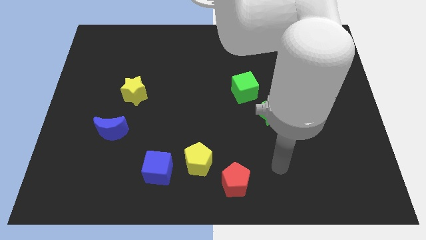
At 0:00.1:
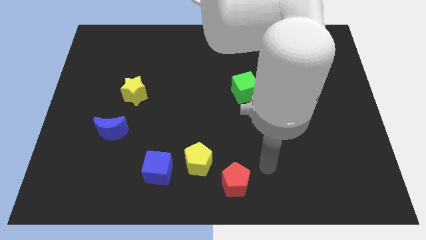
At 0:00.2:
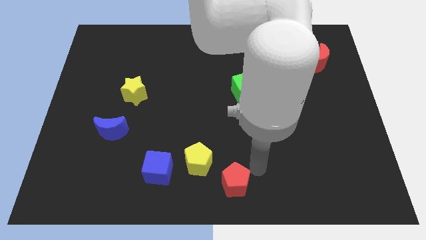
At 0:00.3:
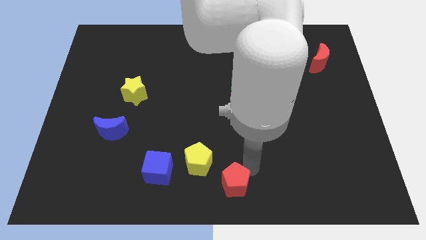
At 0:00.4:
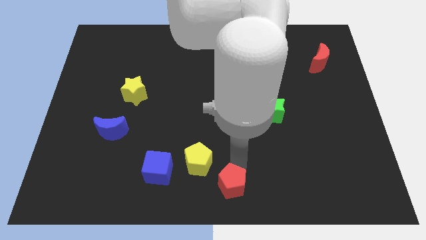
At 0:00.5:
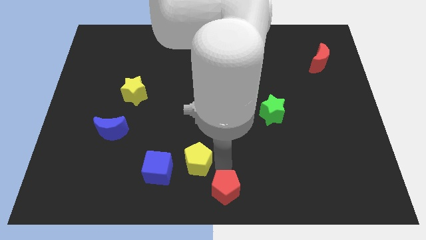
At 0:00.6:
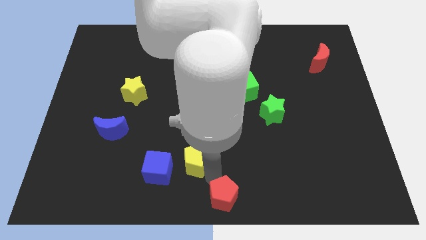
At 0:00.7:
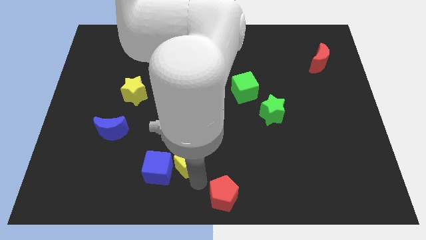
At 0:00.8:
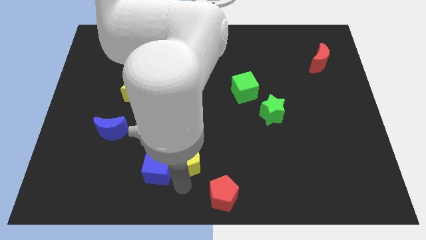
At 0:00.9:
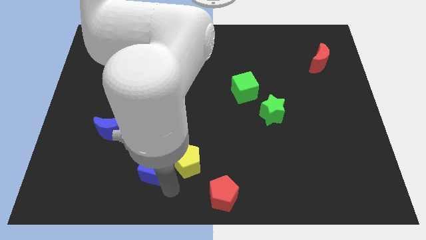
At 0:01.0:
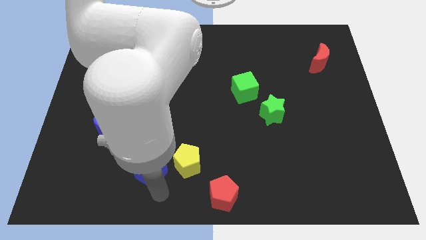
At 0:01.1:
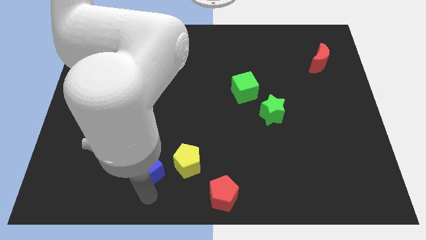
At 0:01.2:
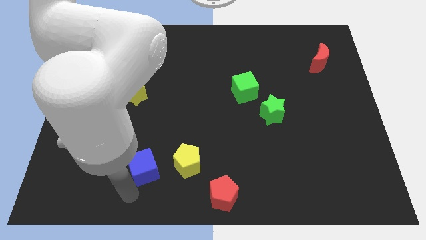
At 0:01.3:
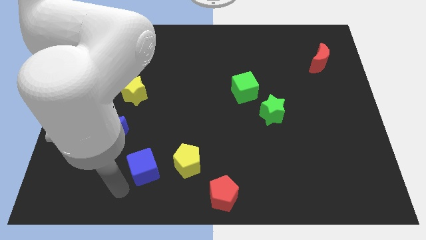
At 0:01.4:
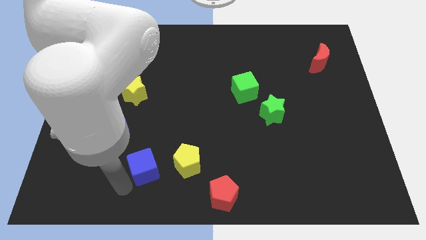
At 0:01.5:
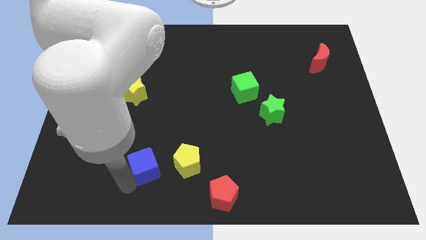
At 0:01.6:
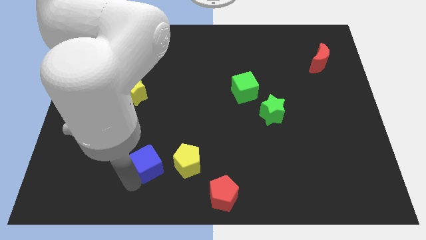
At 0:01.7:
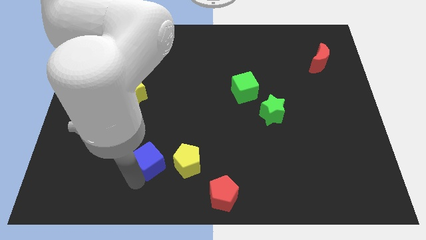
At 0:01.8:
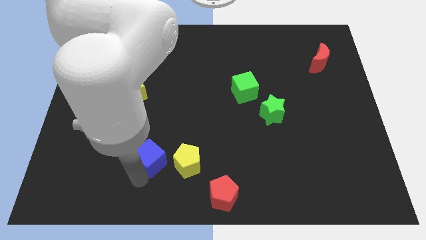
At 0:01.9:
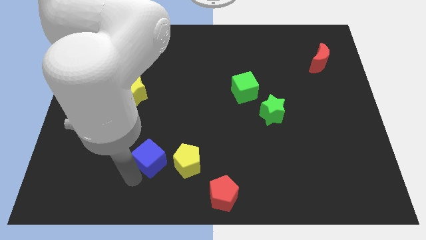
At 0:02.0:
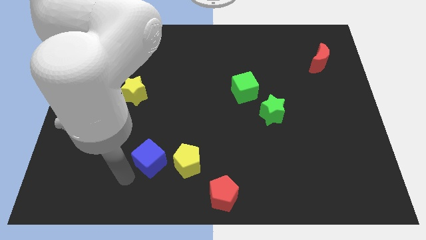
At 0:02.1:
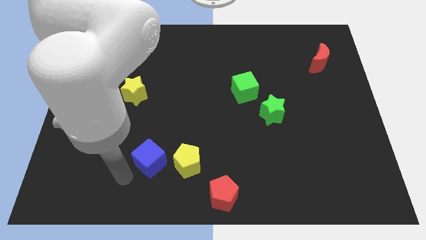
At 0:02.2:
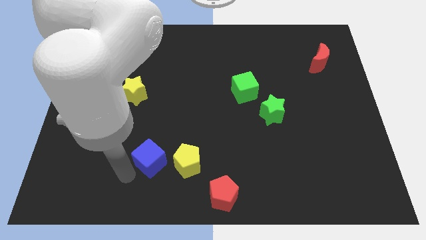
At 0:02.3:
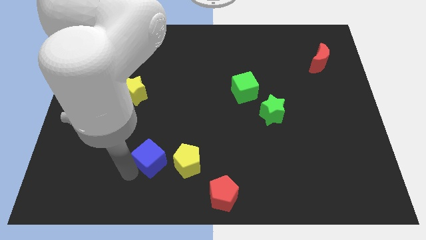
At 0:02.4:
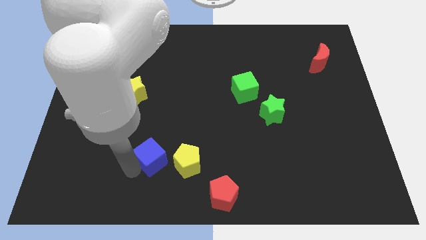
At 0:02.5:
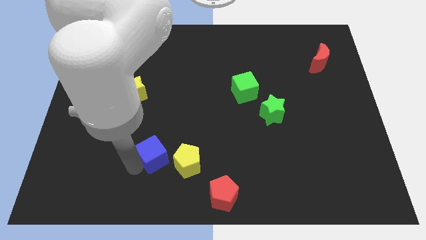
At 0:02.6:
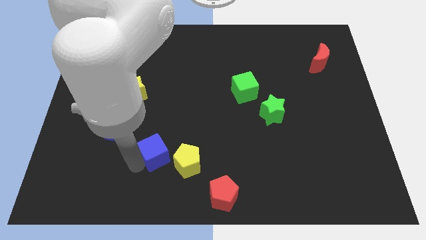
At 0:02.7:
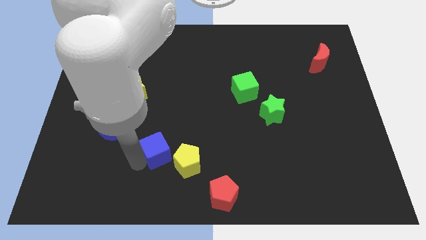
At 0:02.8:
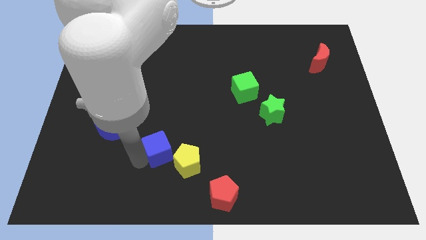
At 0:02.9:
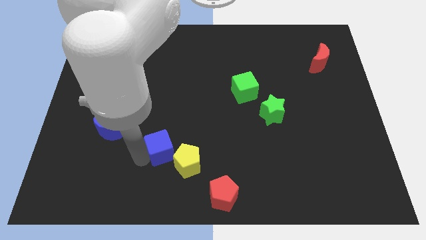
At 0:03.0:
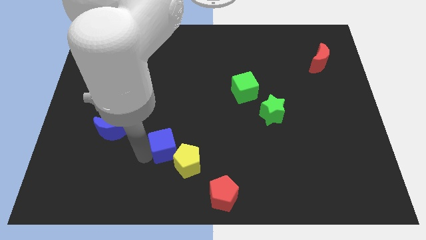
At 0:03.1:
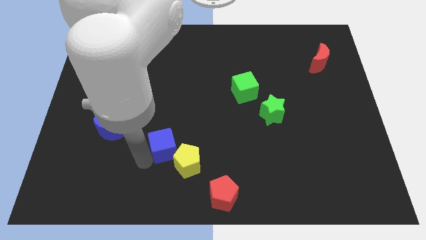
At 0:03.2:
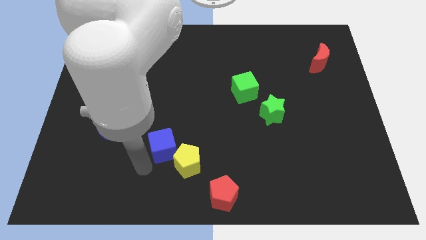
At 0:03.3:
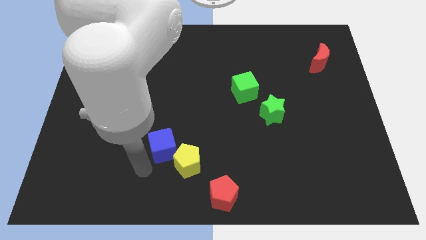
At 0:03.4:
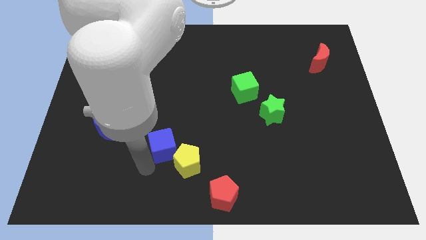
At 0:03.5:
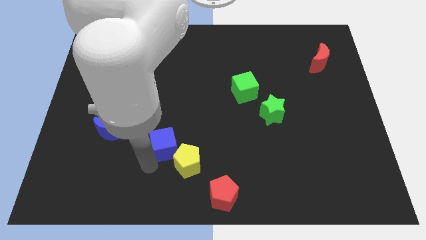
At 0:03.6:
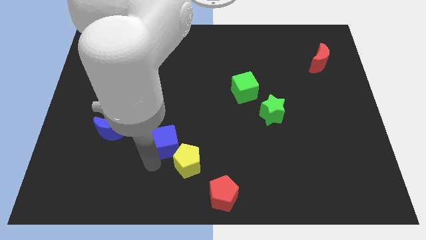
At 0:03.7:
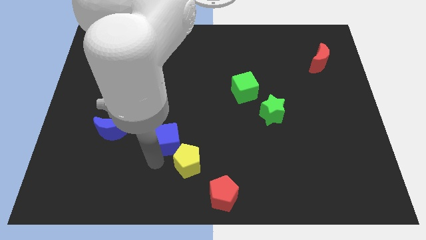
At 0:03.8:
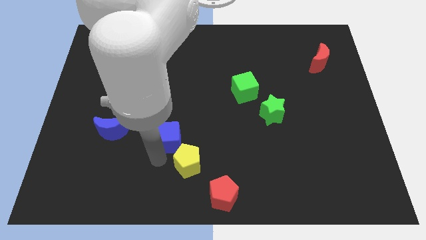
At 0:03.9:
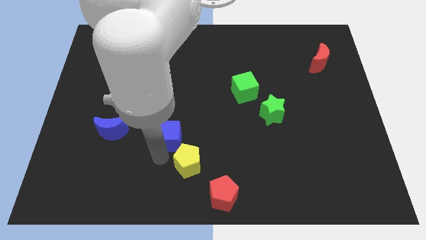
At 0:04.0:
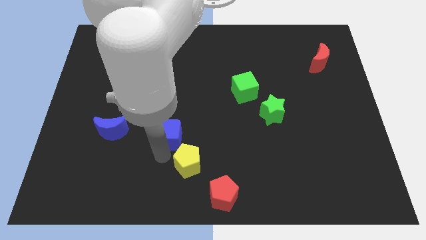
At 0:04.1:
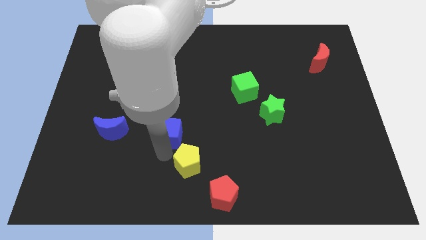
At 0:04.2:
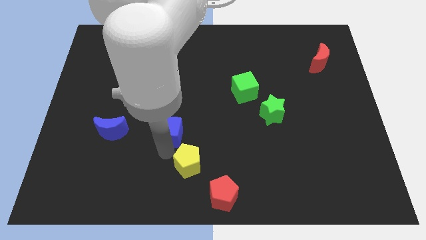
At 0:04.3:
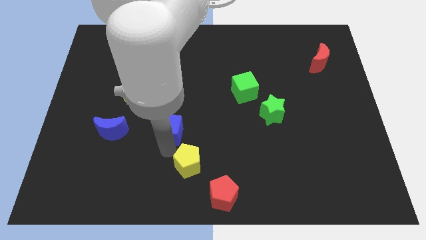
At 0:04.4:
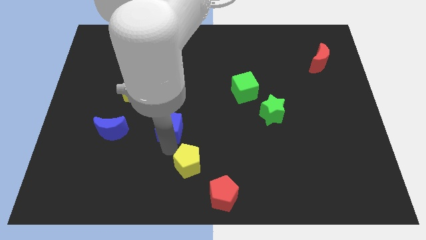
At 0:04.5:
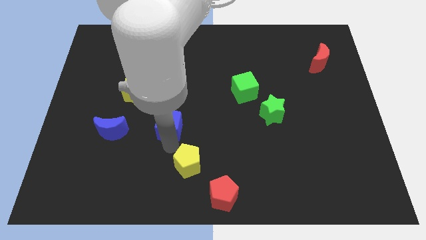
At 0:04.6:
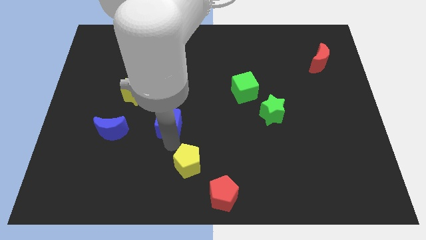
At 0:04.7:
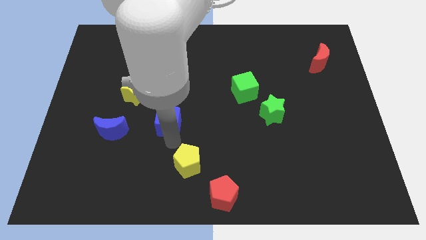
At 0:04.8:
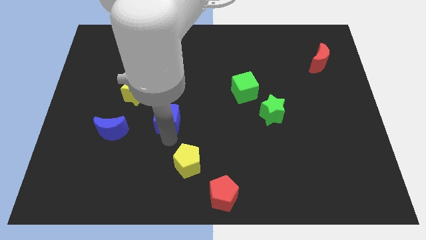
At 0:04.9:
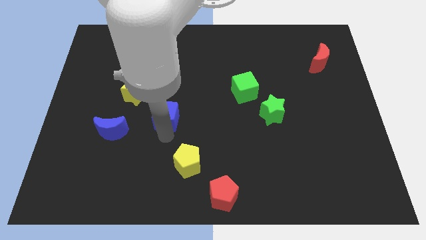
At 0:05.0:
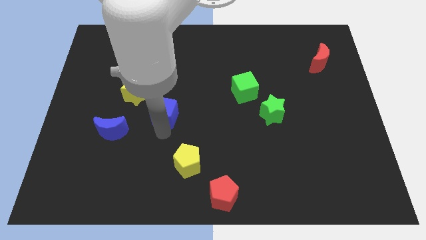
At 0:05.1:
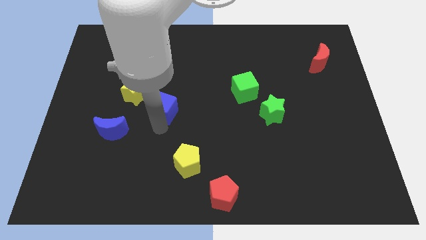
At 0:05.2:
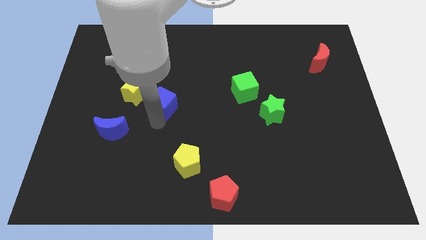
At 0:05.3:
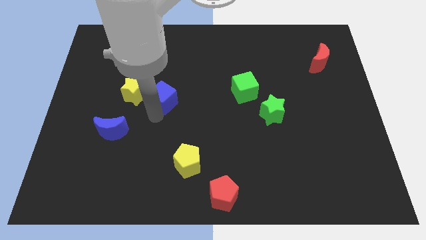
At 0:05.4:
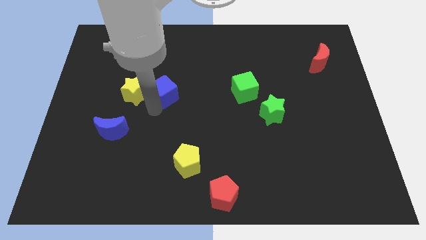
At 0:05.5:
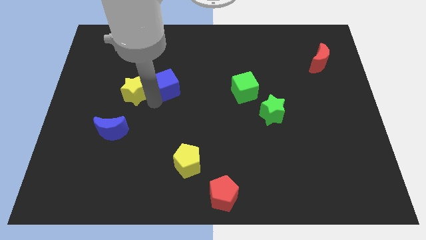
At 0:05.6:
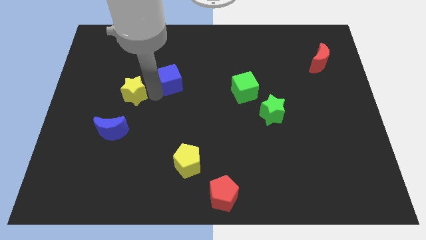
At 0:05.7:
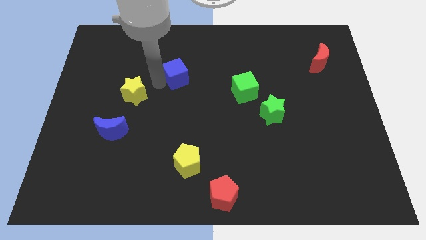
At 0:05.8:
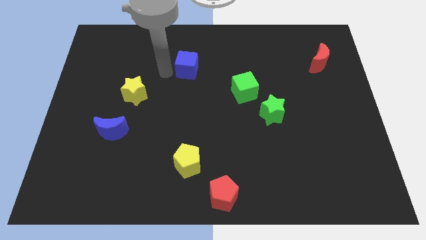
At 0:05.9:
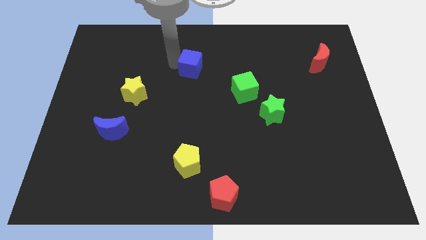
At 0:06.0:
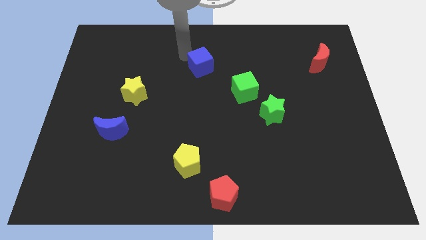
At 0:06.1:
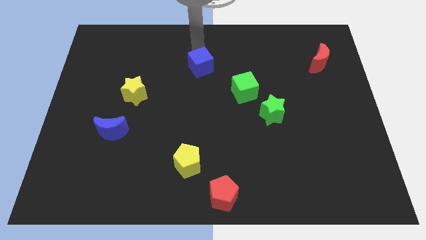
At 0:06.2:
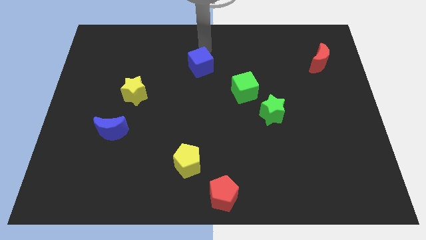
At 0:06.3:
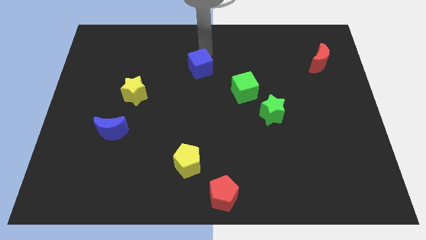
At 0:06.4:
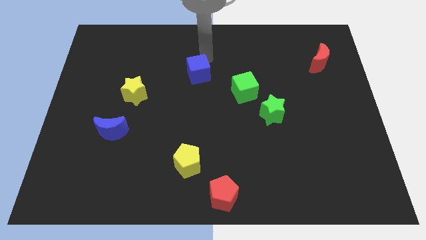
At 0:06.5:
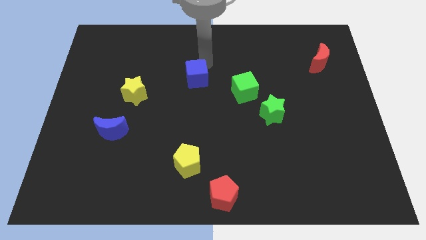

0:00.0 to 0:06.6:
put the blue cube to the left of the green cube
